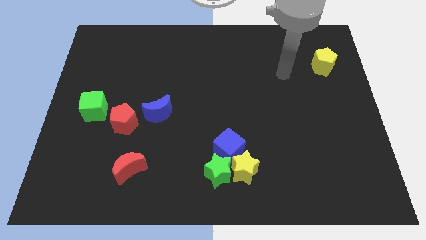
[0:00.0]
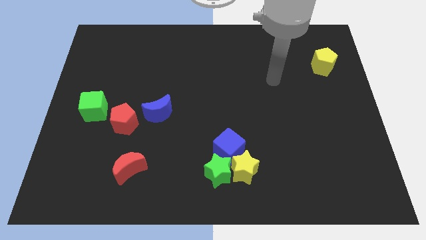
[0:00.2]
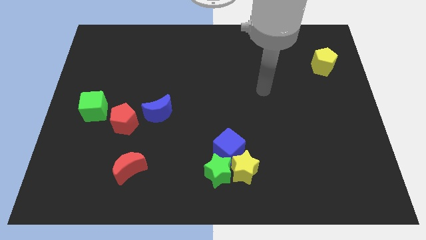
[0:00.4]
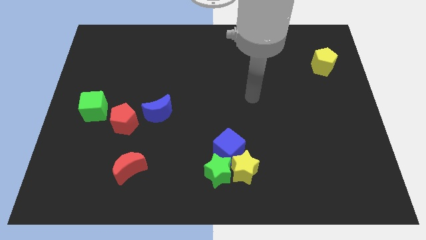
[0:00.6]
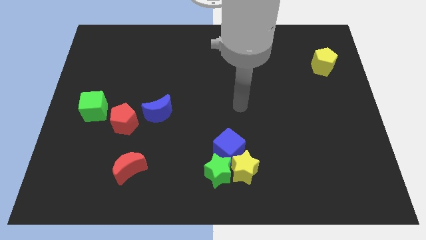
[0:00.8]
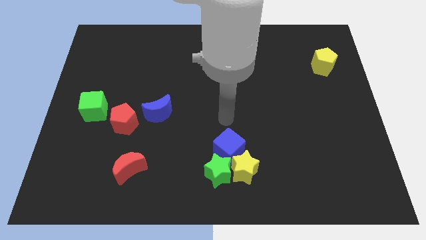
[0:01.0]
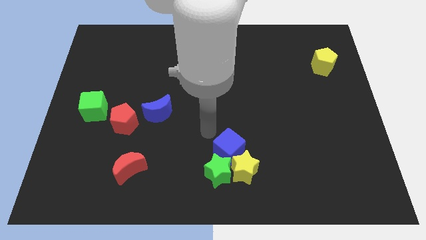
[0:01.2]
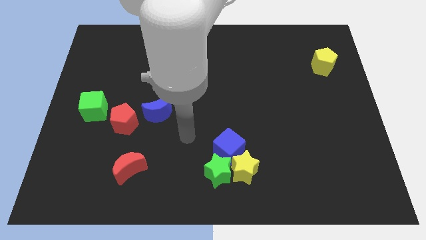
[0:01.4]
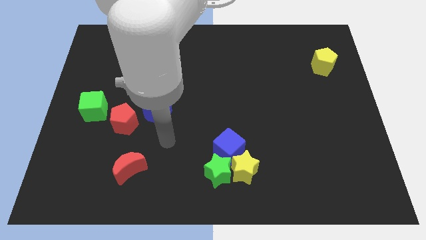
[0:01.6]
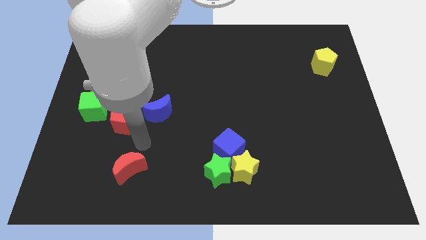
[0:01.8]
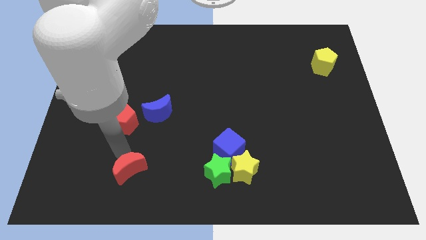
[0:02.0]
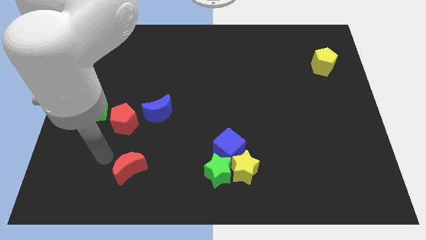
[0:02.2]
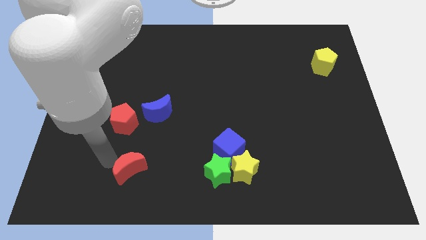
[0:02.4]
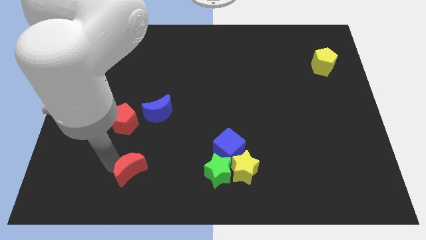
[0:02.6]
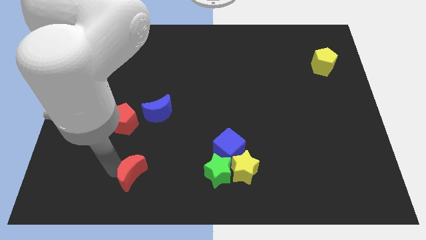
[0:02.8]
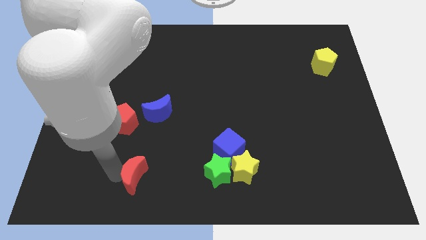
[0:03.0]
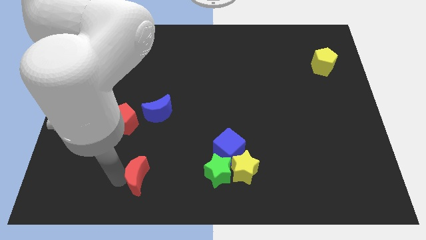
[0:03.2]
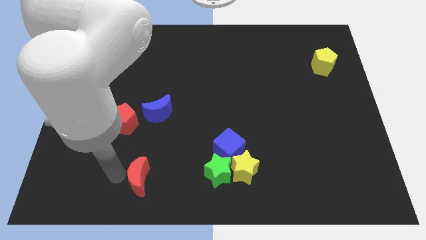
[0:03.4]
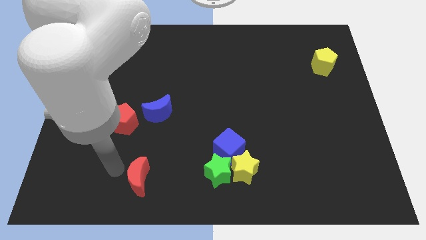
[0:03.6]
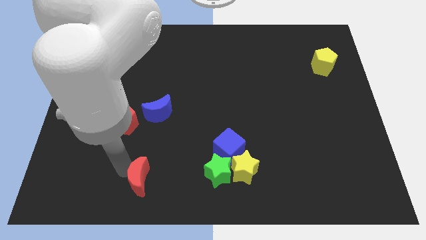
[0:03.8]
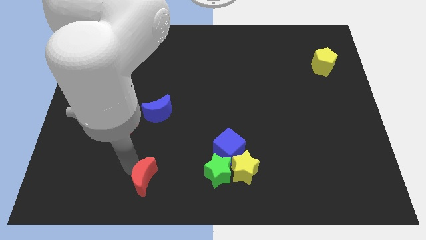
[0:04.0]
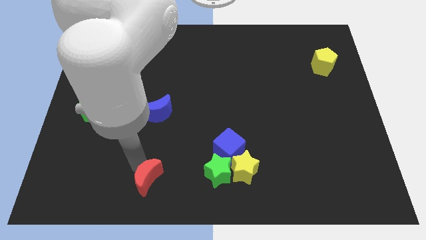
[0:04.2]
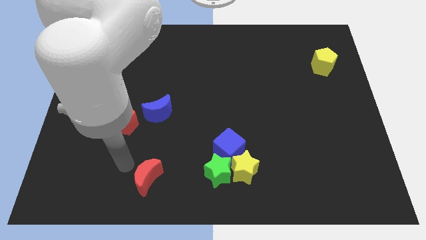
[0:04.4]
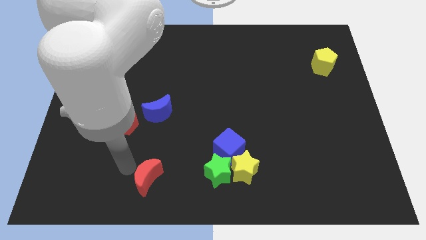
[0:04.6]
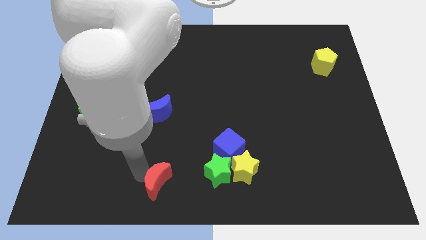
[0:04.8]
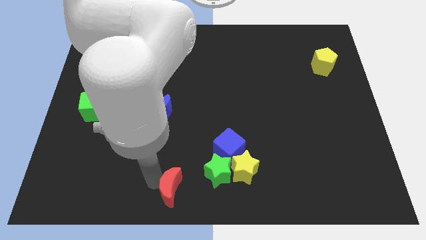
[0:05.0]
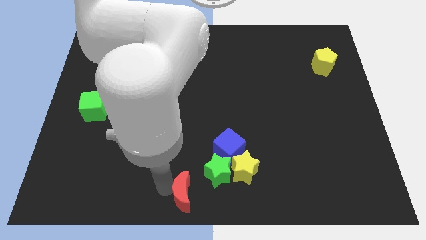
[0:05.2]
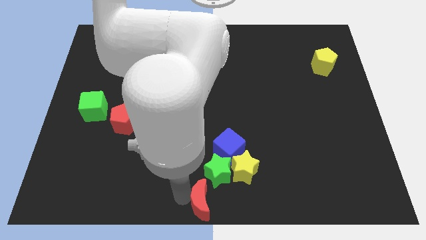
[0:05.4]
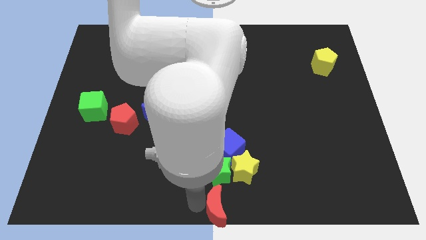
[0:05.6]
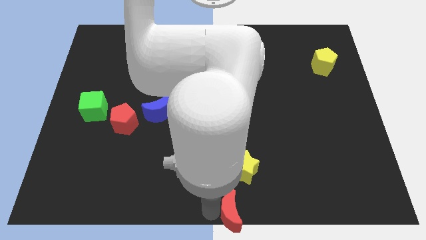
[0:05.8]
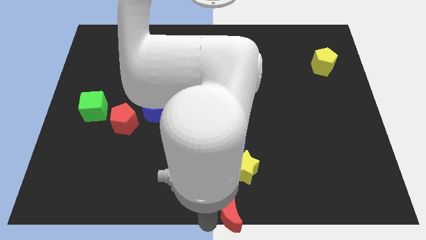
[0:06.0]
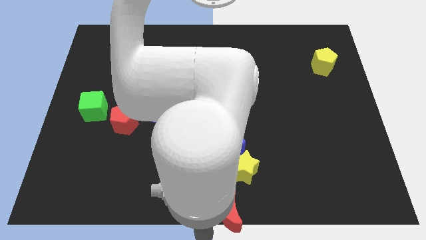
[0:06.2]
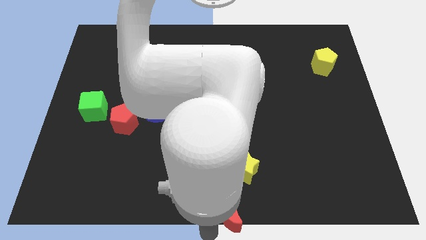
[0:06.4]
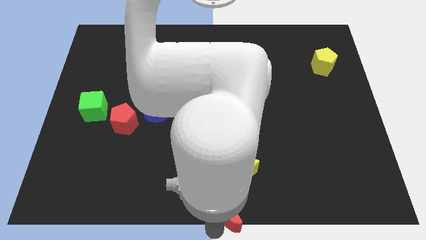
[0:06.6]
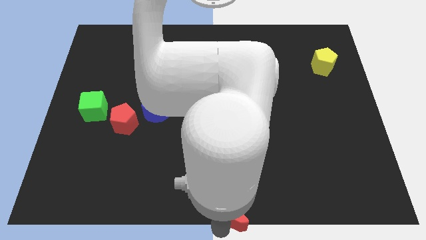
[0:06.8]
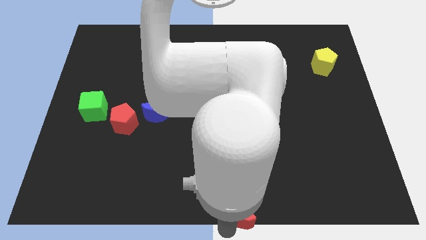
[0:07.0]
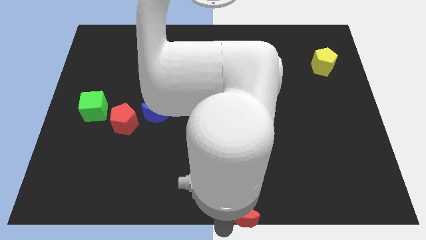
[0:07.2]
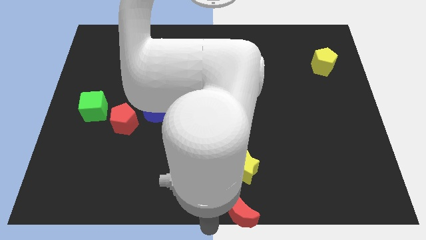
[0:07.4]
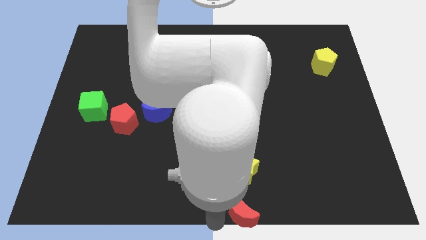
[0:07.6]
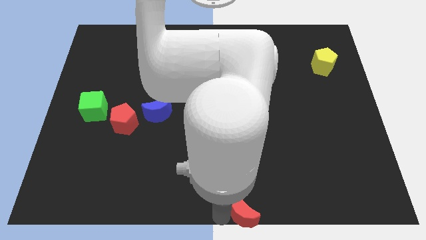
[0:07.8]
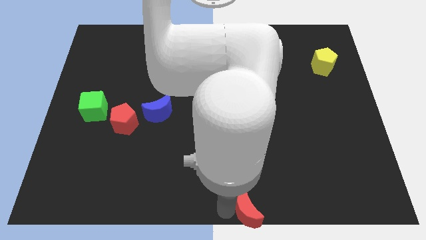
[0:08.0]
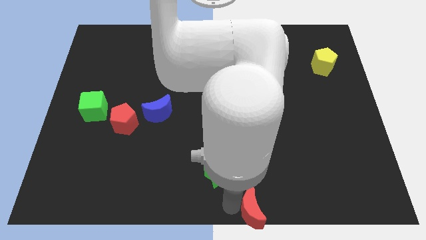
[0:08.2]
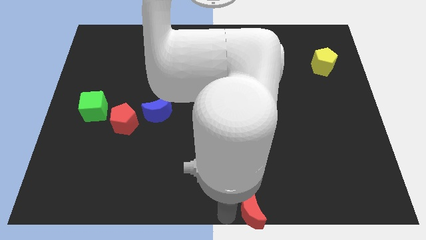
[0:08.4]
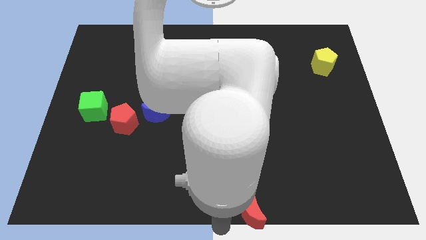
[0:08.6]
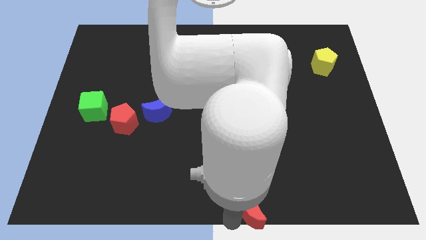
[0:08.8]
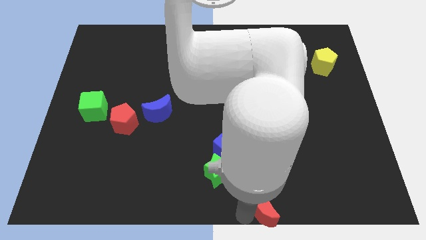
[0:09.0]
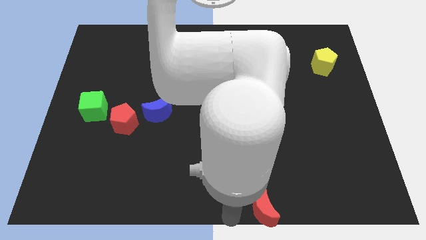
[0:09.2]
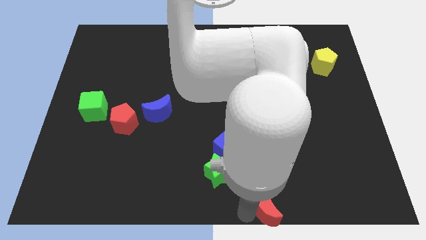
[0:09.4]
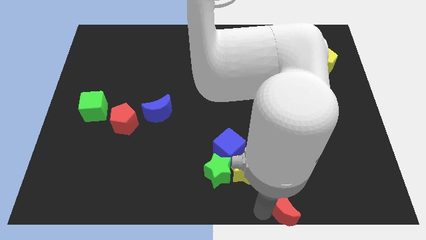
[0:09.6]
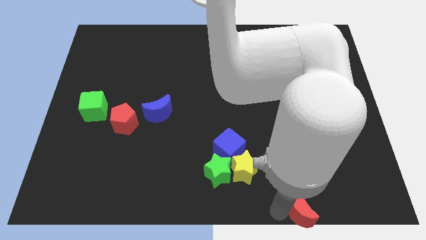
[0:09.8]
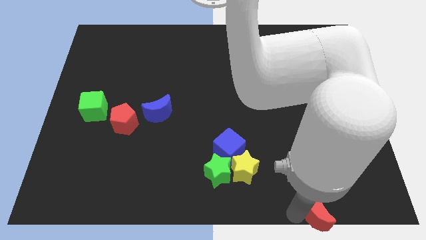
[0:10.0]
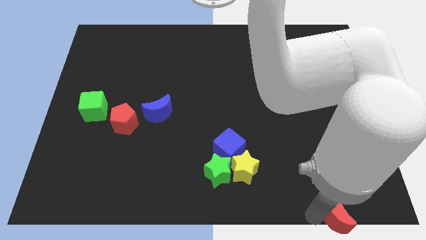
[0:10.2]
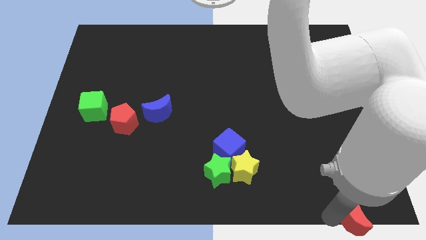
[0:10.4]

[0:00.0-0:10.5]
push the red moon to the bottom right corner

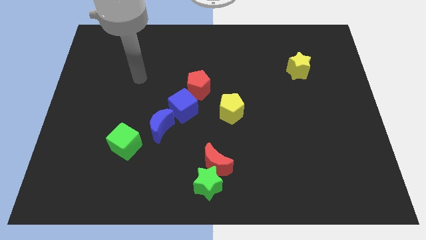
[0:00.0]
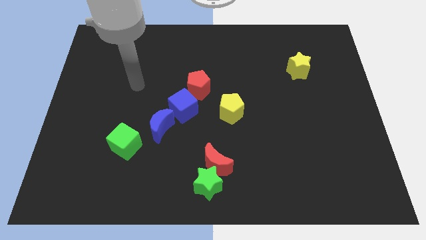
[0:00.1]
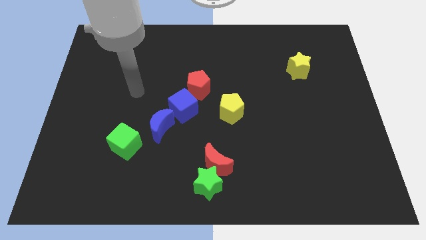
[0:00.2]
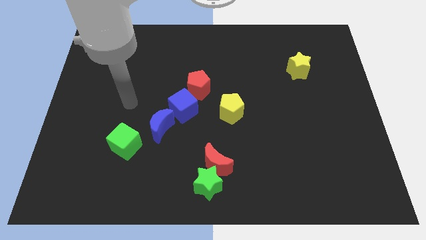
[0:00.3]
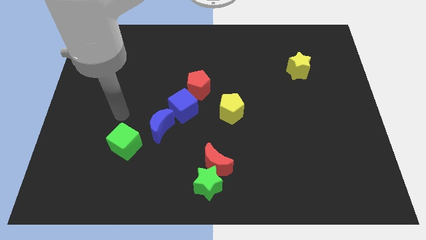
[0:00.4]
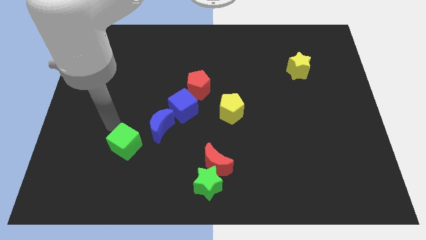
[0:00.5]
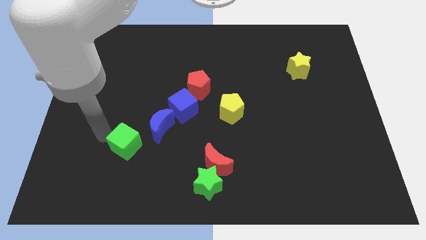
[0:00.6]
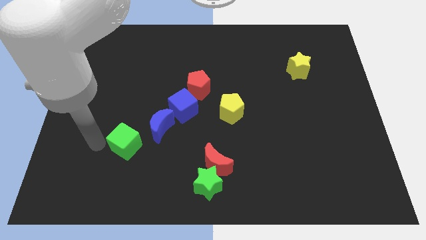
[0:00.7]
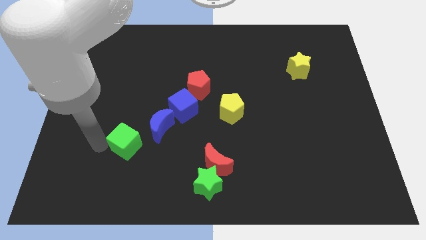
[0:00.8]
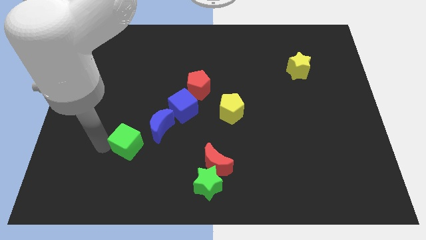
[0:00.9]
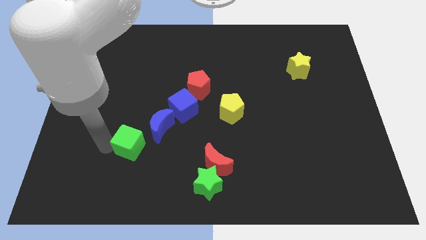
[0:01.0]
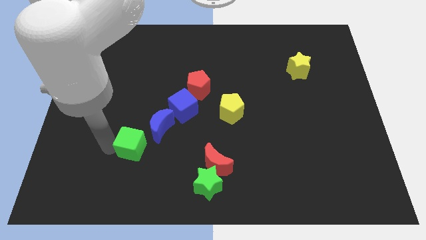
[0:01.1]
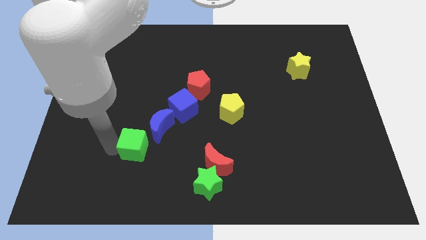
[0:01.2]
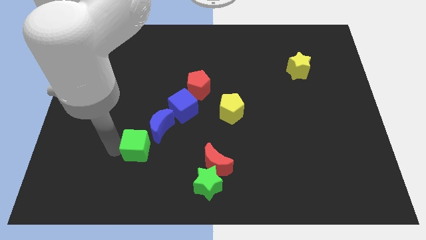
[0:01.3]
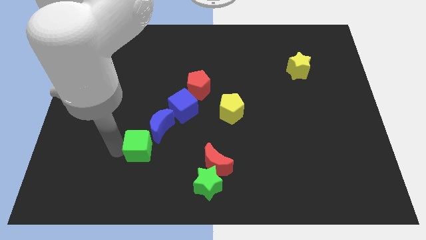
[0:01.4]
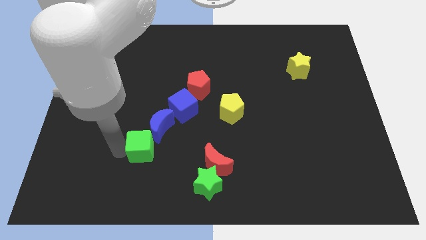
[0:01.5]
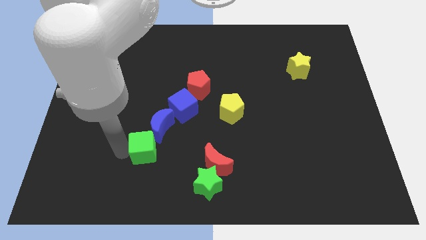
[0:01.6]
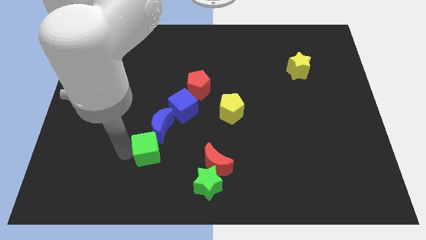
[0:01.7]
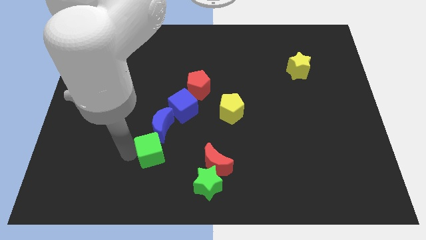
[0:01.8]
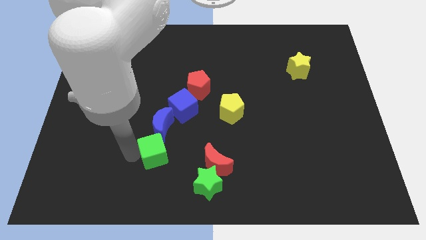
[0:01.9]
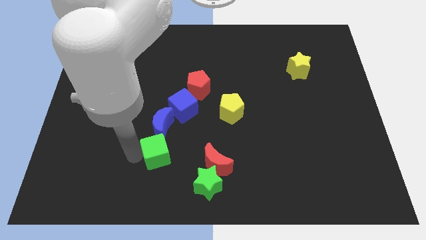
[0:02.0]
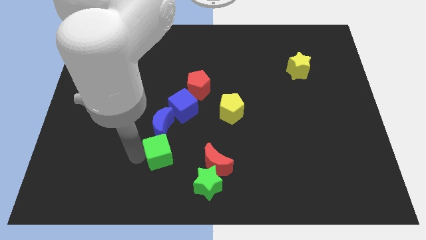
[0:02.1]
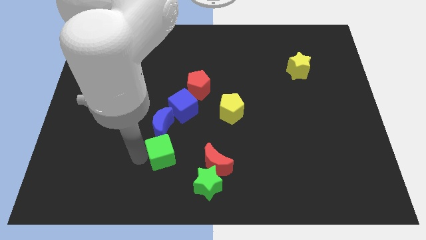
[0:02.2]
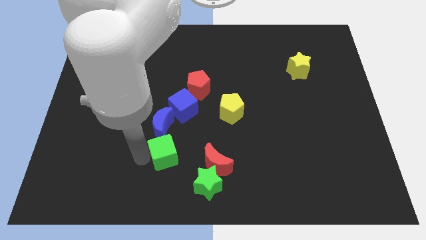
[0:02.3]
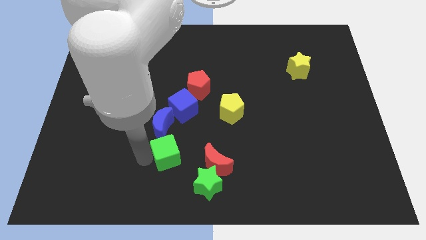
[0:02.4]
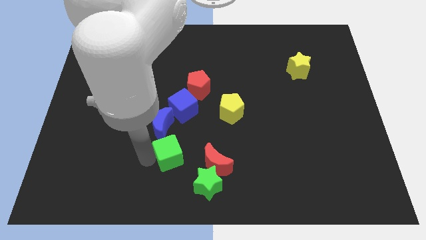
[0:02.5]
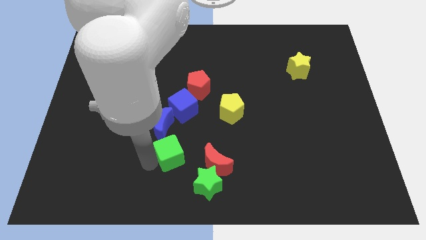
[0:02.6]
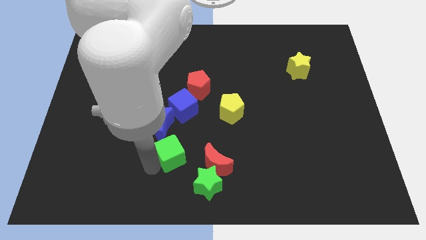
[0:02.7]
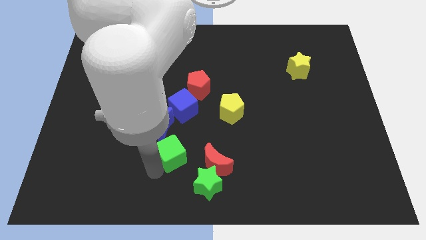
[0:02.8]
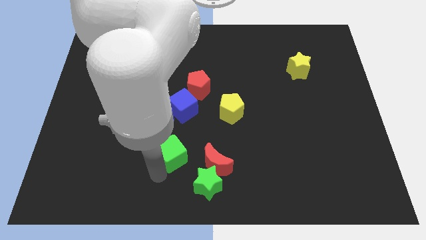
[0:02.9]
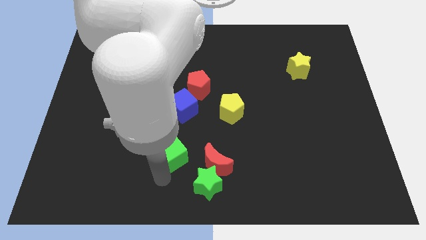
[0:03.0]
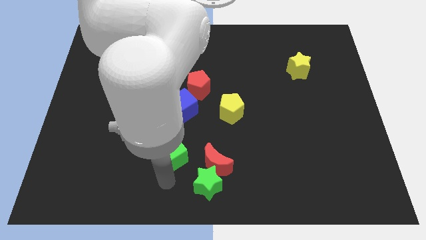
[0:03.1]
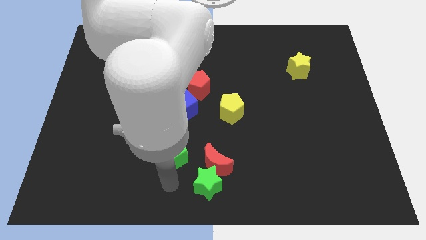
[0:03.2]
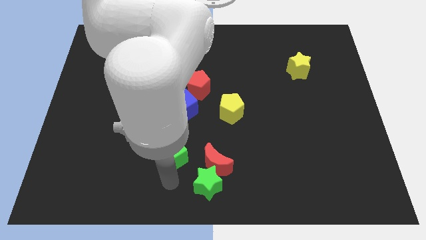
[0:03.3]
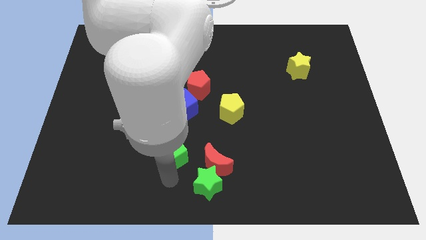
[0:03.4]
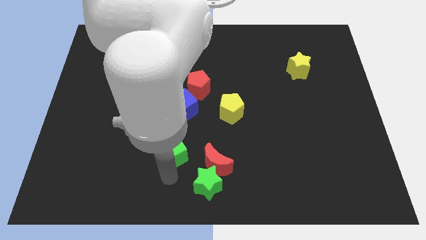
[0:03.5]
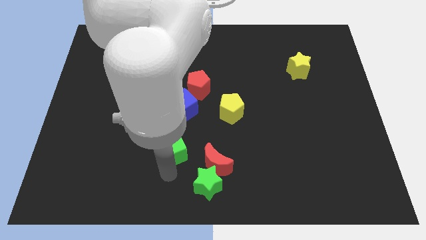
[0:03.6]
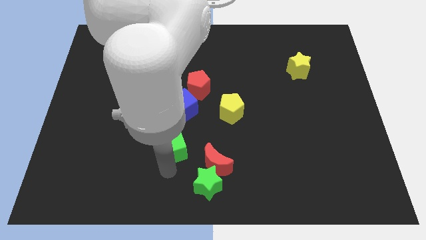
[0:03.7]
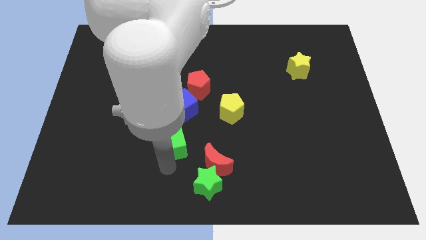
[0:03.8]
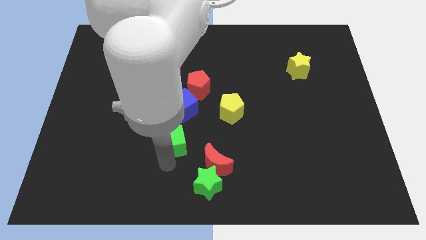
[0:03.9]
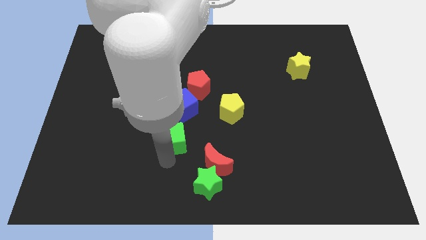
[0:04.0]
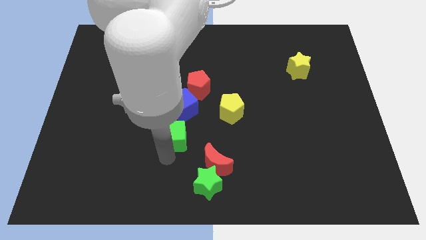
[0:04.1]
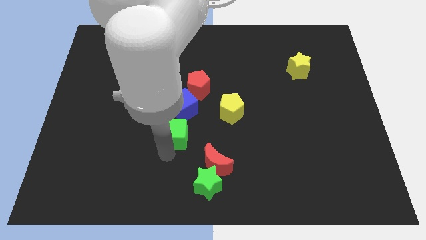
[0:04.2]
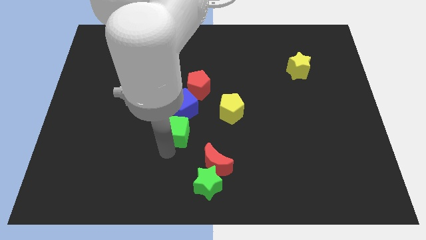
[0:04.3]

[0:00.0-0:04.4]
slide the green cube to the middle
